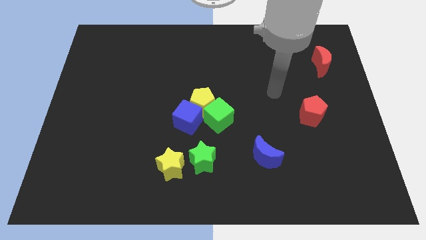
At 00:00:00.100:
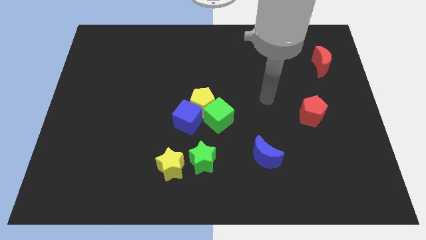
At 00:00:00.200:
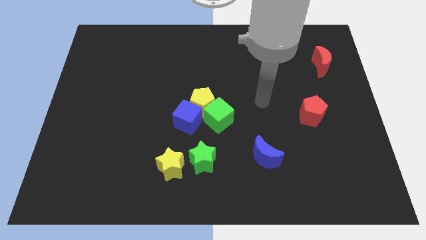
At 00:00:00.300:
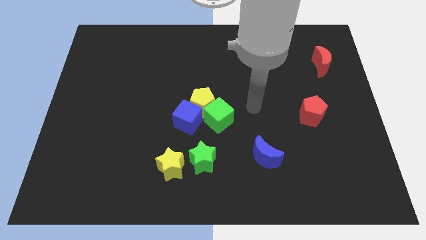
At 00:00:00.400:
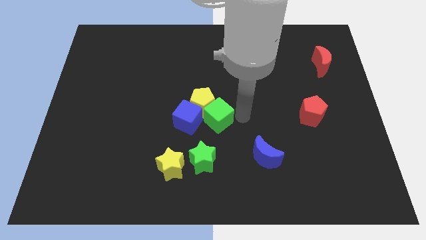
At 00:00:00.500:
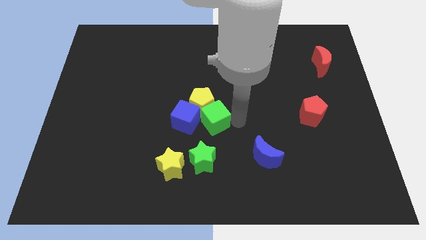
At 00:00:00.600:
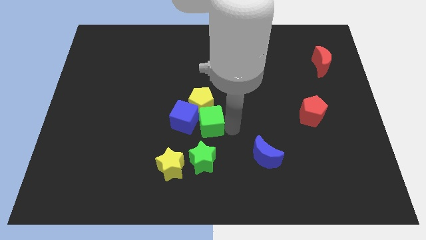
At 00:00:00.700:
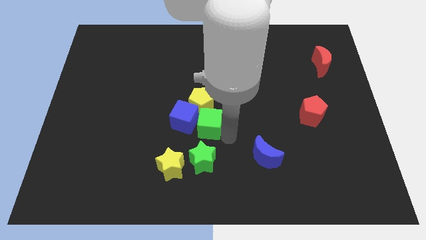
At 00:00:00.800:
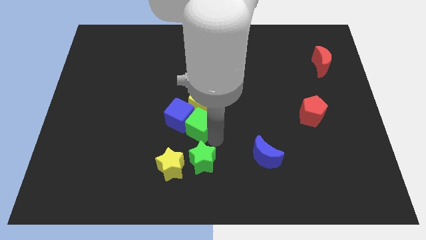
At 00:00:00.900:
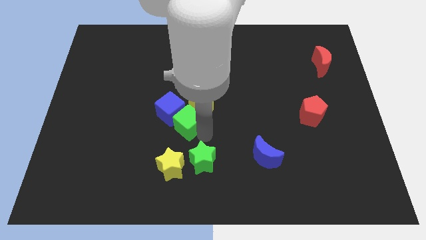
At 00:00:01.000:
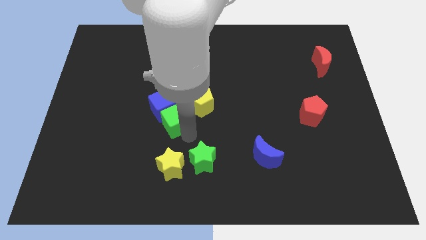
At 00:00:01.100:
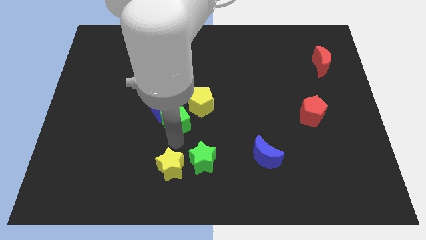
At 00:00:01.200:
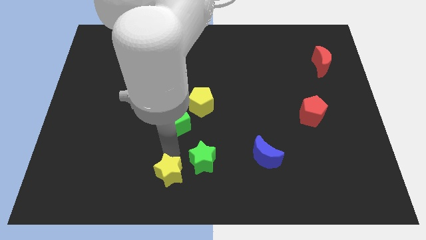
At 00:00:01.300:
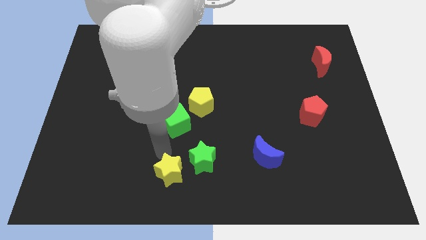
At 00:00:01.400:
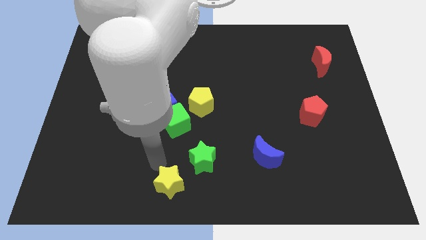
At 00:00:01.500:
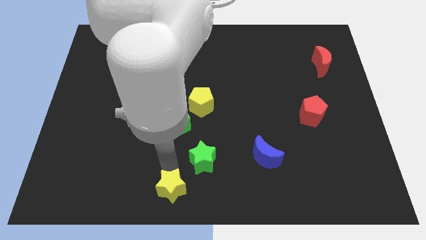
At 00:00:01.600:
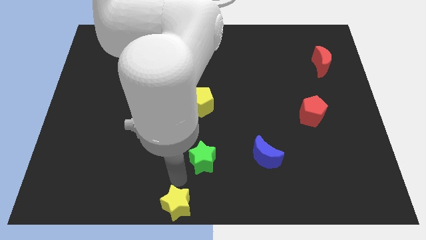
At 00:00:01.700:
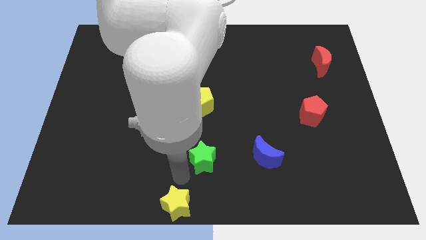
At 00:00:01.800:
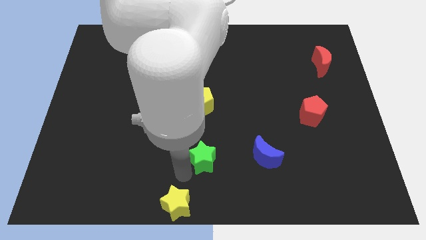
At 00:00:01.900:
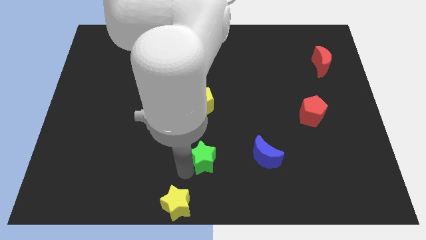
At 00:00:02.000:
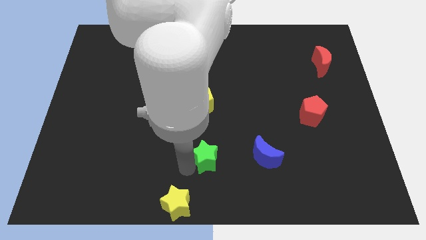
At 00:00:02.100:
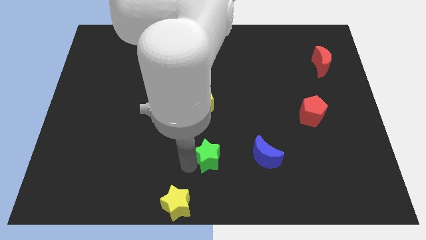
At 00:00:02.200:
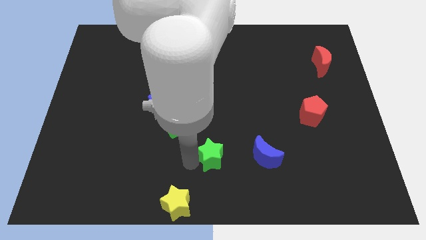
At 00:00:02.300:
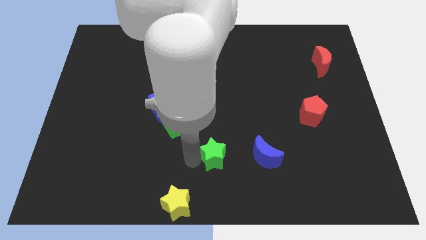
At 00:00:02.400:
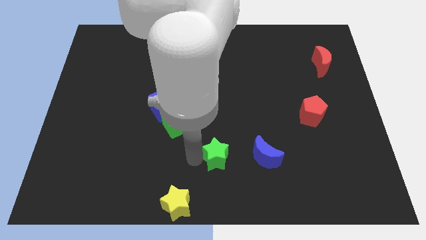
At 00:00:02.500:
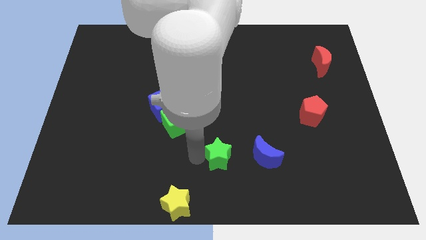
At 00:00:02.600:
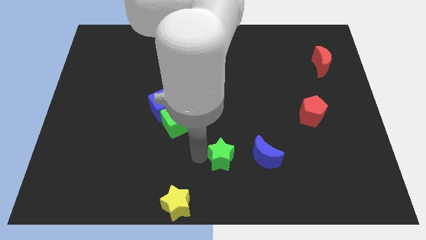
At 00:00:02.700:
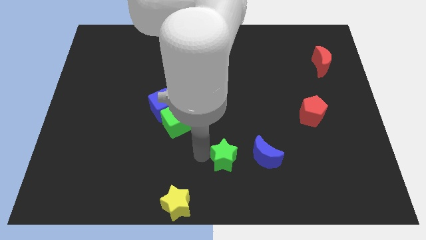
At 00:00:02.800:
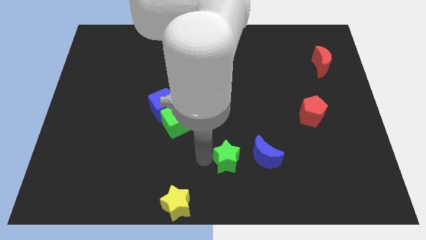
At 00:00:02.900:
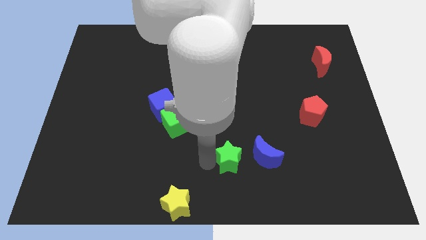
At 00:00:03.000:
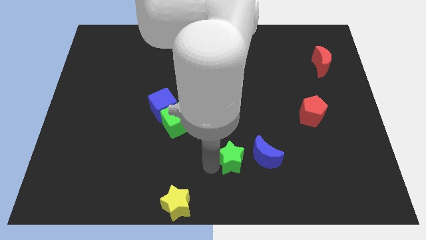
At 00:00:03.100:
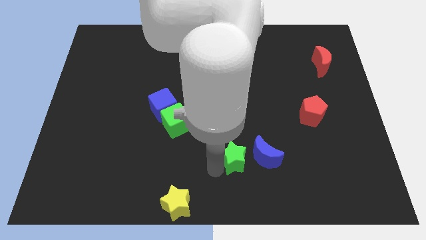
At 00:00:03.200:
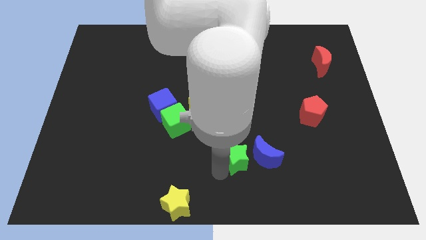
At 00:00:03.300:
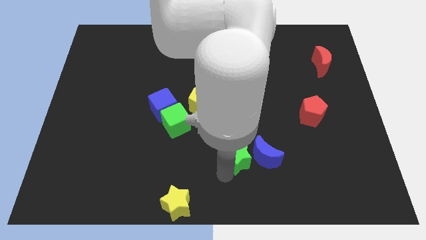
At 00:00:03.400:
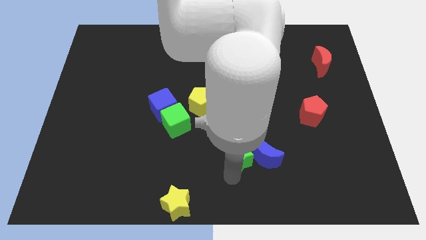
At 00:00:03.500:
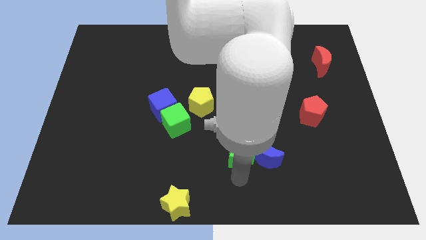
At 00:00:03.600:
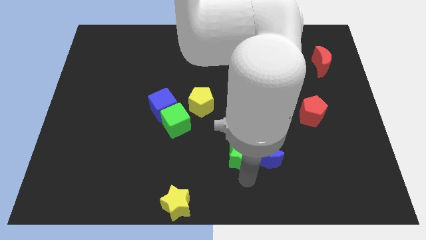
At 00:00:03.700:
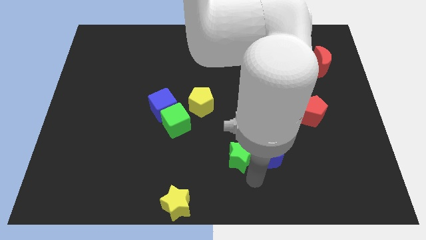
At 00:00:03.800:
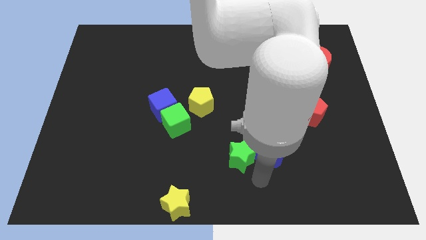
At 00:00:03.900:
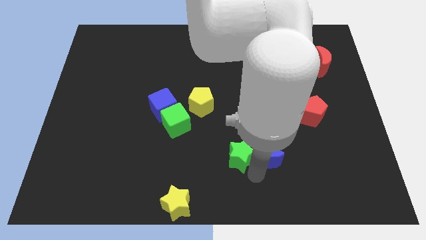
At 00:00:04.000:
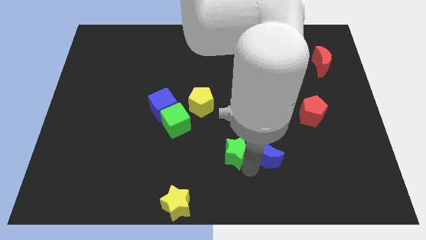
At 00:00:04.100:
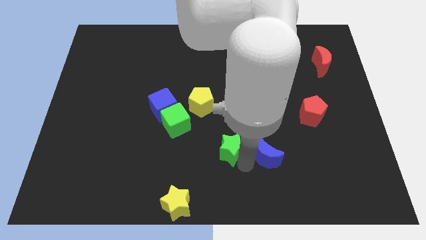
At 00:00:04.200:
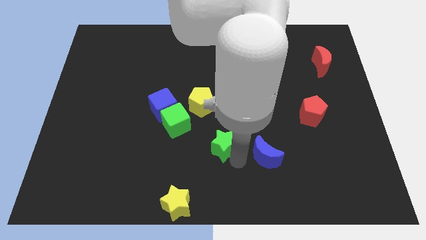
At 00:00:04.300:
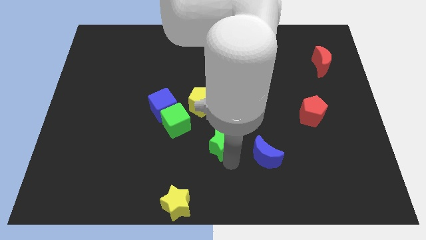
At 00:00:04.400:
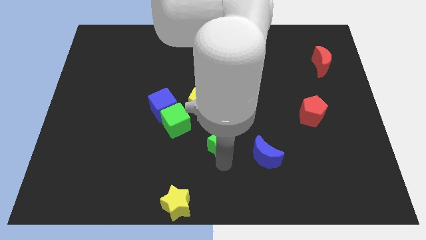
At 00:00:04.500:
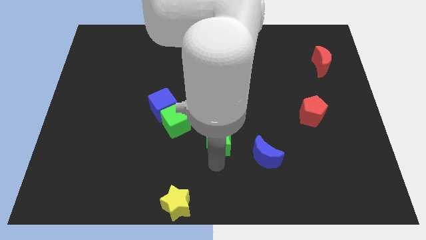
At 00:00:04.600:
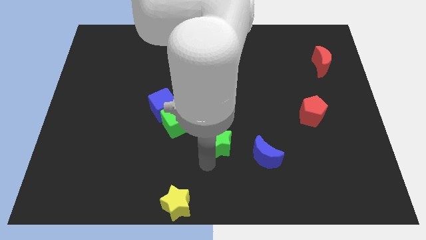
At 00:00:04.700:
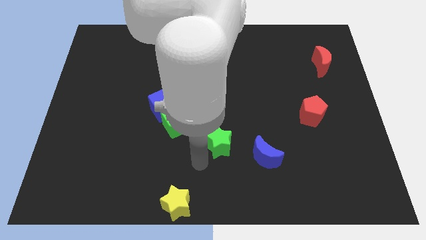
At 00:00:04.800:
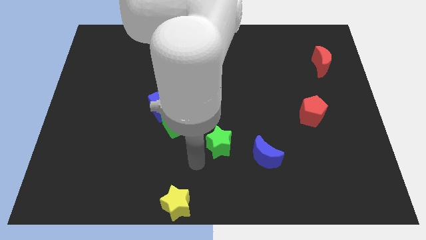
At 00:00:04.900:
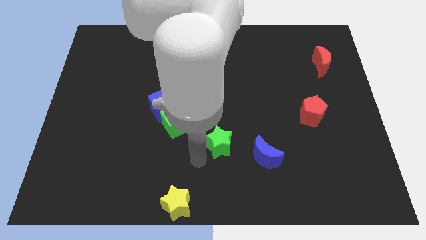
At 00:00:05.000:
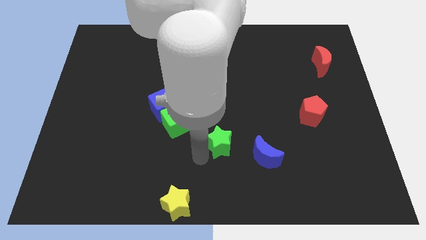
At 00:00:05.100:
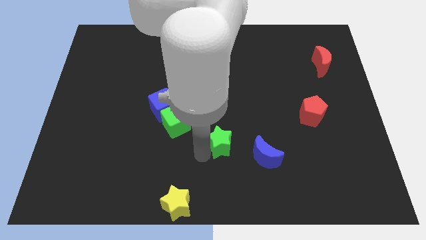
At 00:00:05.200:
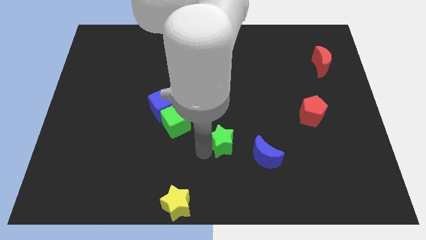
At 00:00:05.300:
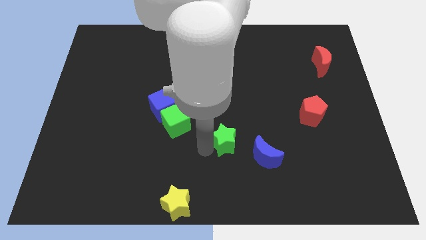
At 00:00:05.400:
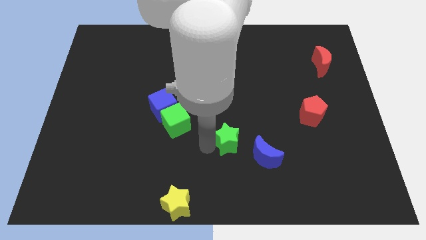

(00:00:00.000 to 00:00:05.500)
move the green star diagonally up and to the right a bit

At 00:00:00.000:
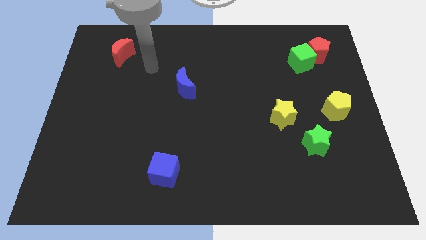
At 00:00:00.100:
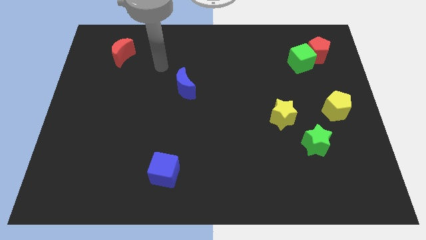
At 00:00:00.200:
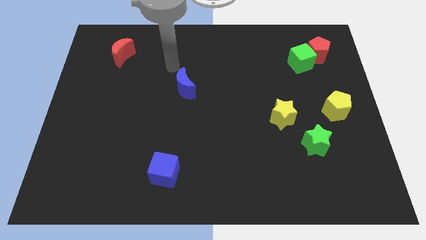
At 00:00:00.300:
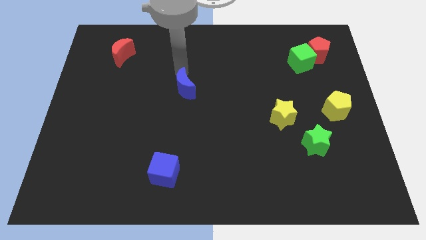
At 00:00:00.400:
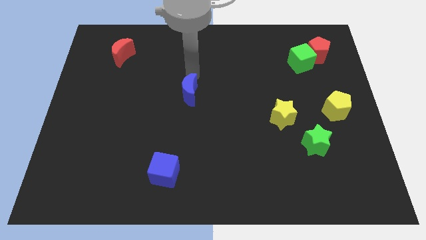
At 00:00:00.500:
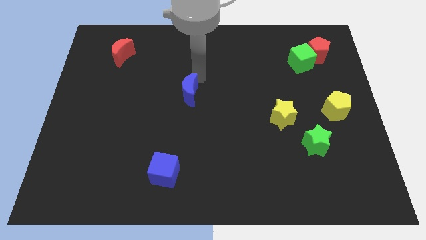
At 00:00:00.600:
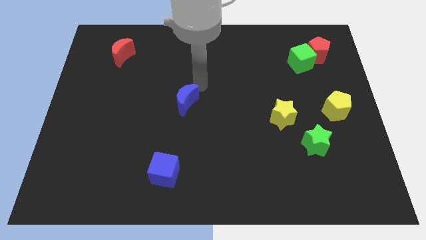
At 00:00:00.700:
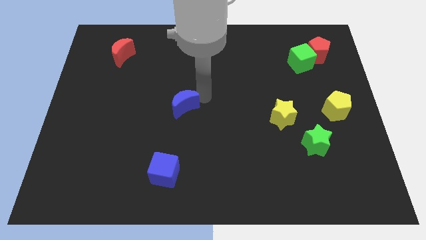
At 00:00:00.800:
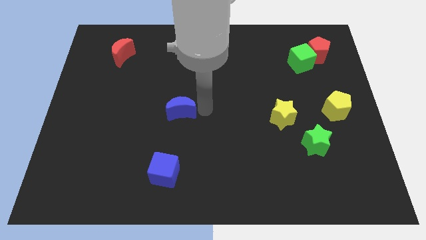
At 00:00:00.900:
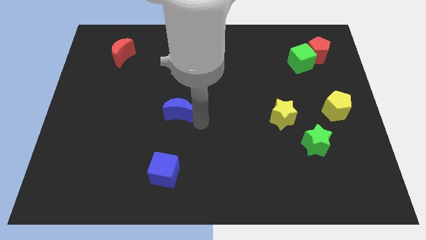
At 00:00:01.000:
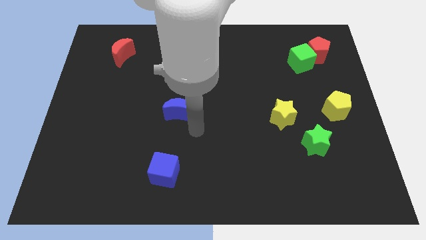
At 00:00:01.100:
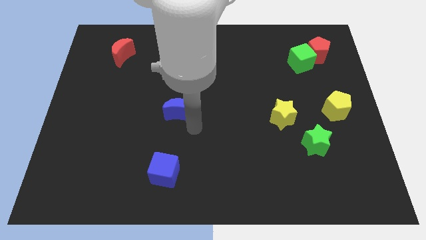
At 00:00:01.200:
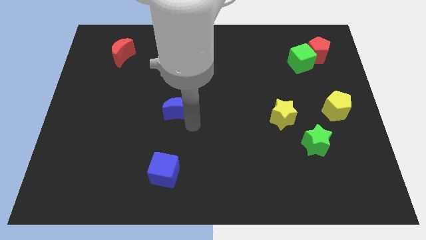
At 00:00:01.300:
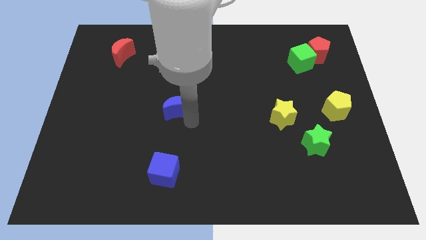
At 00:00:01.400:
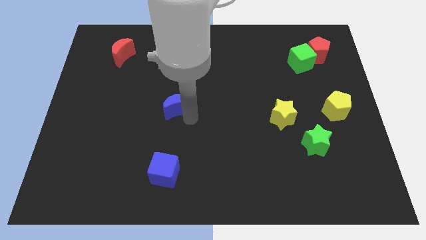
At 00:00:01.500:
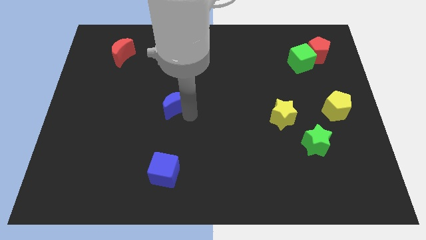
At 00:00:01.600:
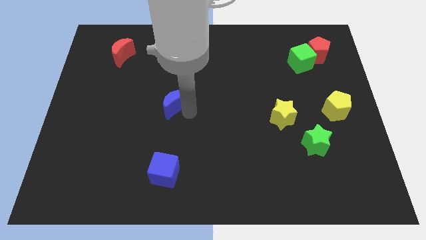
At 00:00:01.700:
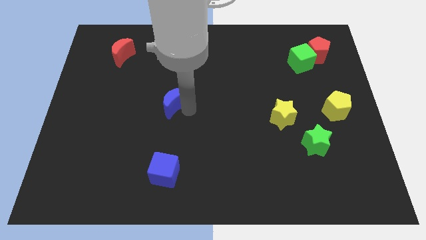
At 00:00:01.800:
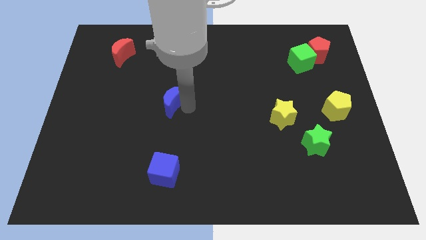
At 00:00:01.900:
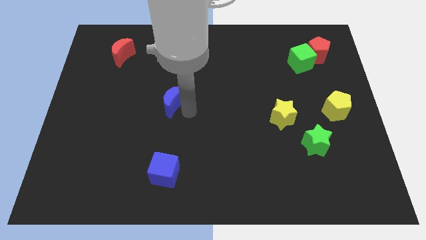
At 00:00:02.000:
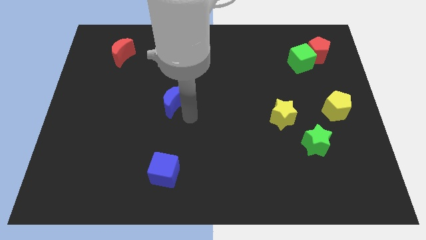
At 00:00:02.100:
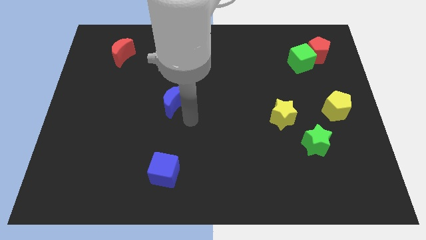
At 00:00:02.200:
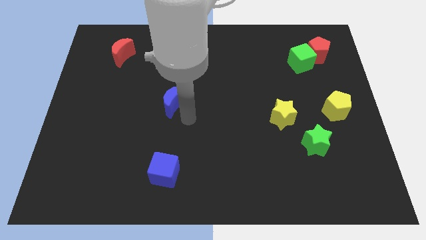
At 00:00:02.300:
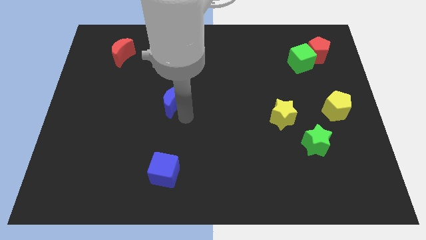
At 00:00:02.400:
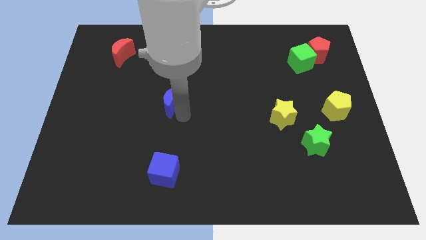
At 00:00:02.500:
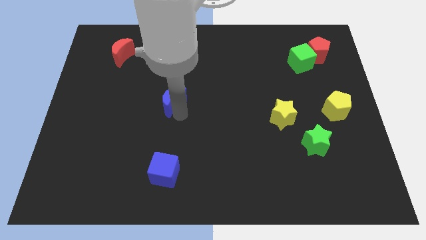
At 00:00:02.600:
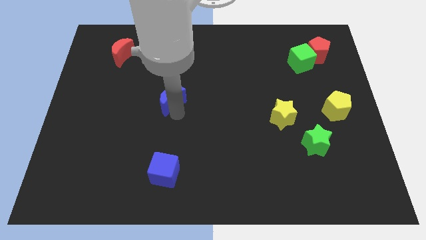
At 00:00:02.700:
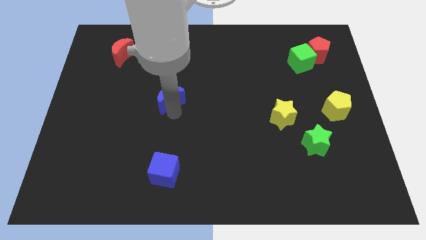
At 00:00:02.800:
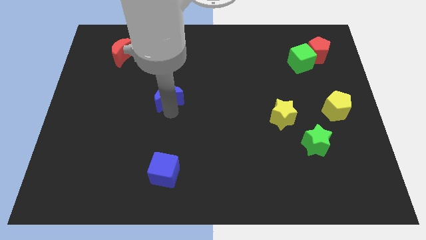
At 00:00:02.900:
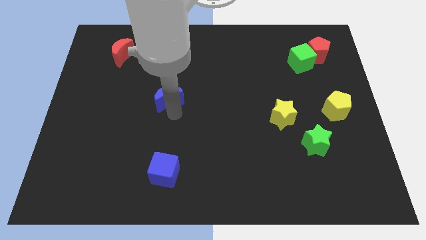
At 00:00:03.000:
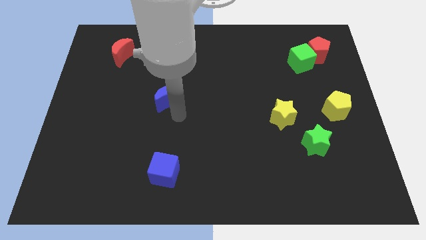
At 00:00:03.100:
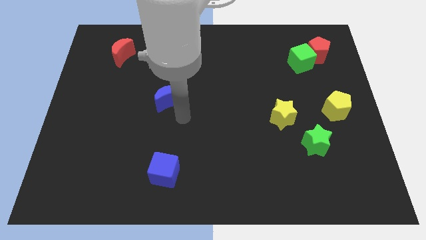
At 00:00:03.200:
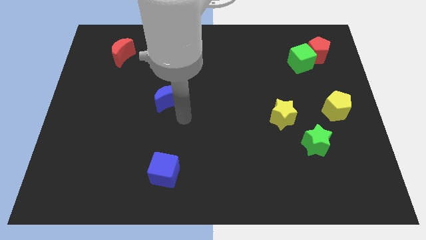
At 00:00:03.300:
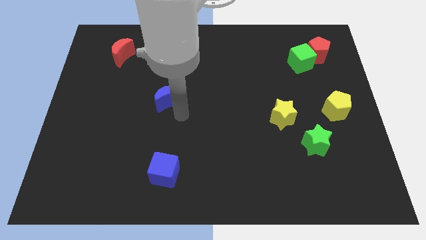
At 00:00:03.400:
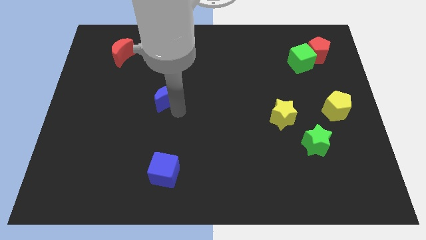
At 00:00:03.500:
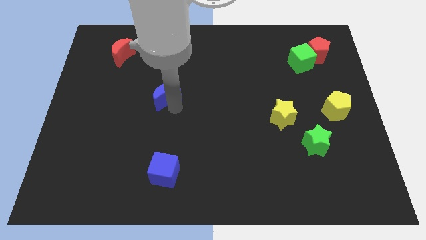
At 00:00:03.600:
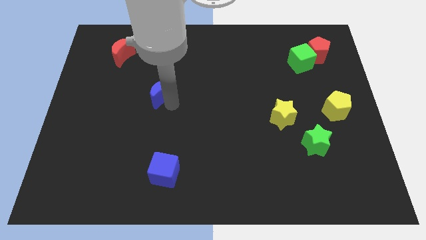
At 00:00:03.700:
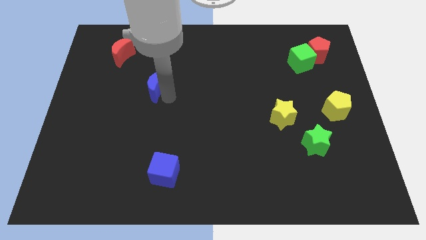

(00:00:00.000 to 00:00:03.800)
slightly push the blue moon left
